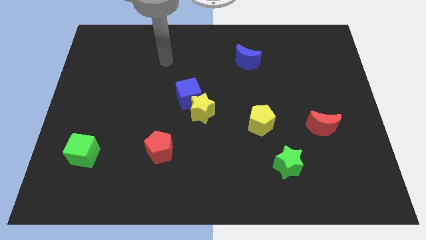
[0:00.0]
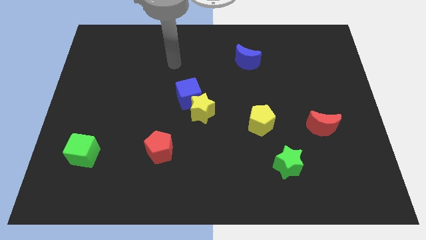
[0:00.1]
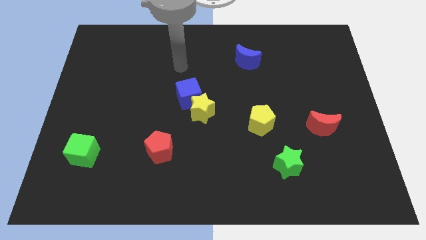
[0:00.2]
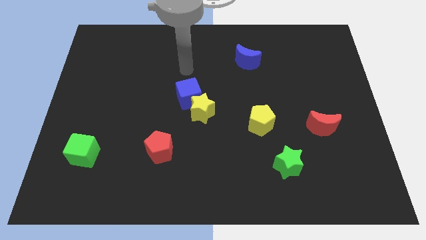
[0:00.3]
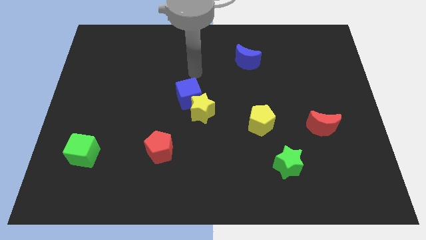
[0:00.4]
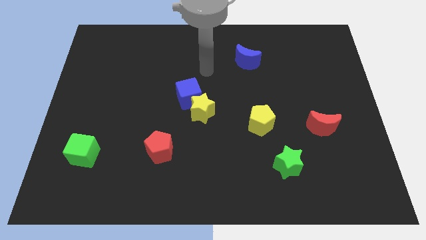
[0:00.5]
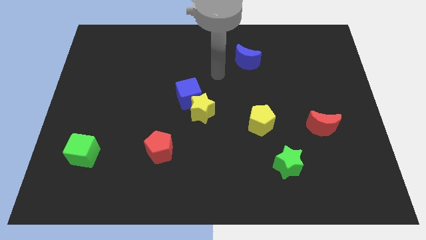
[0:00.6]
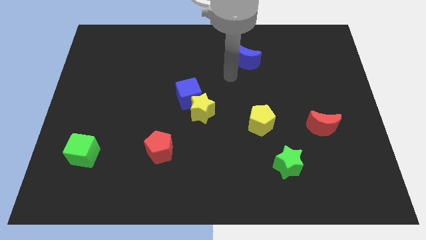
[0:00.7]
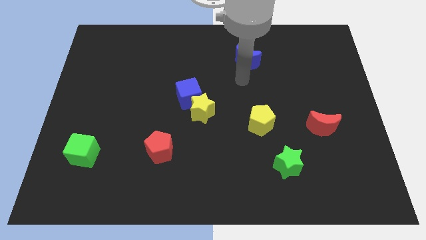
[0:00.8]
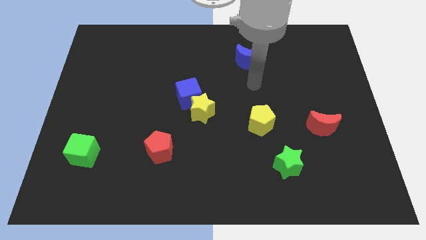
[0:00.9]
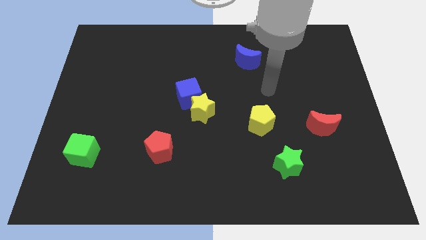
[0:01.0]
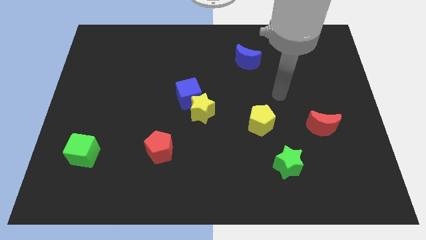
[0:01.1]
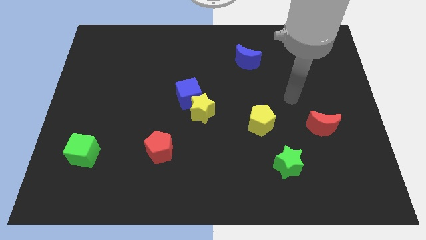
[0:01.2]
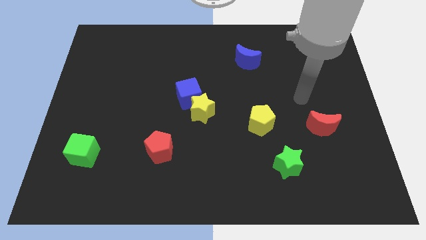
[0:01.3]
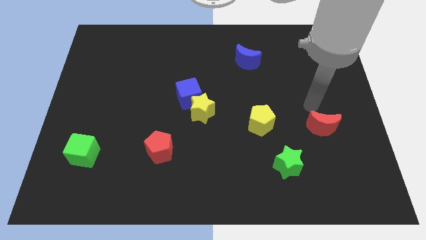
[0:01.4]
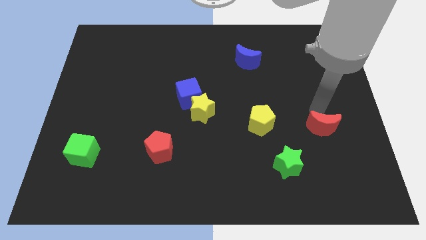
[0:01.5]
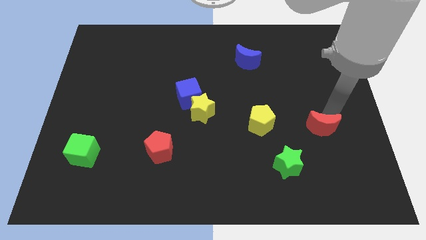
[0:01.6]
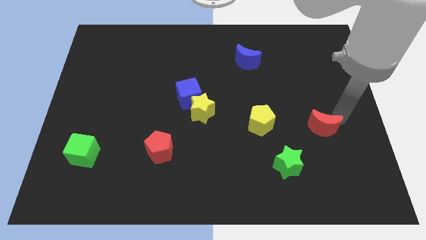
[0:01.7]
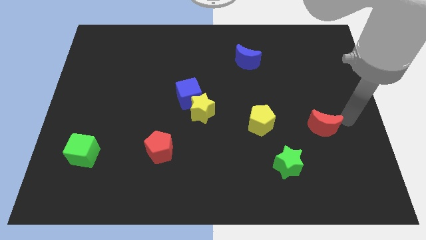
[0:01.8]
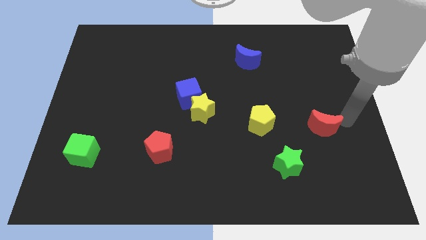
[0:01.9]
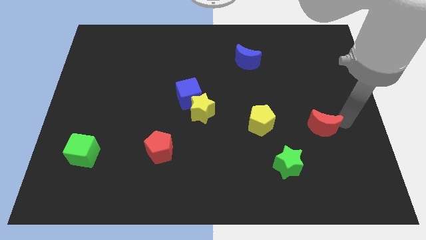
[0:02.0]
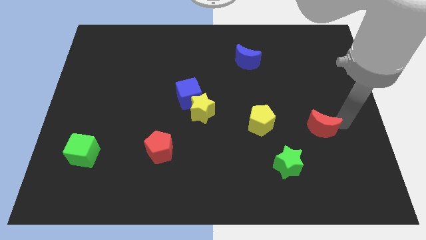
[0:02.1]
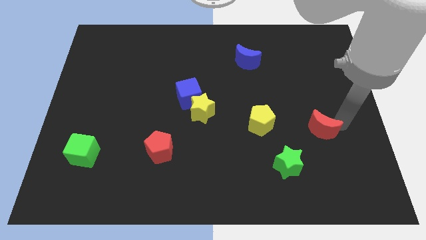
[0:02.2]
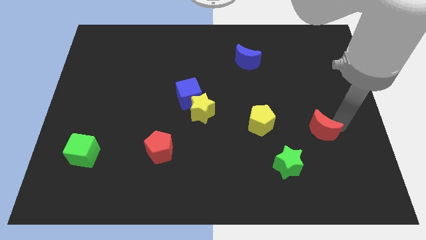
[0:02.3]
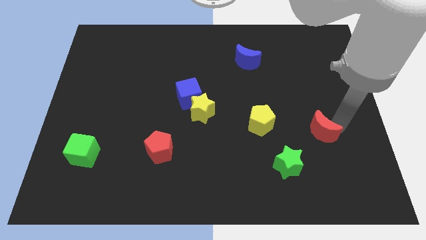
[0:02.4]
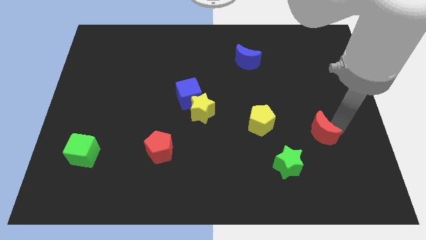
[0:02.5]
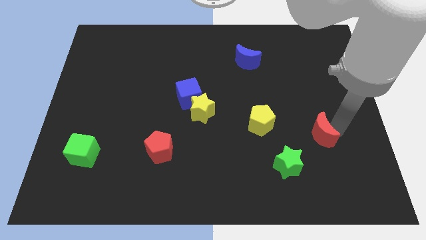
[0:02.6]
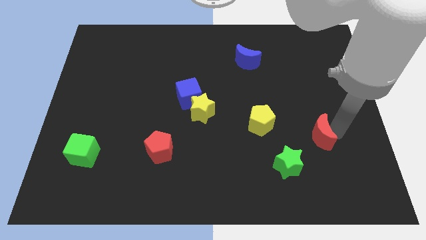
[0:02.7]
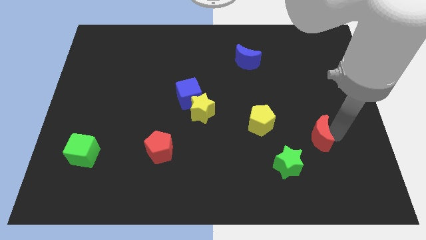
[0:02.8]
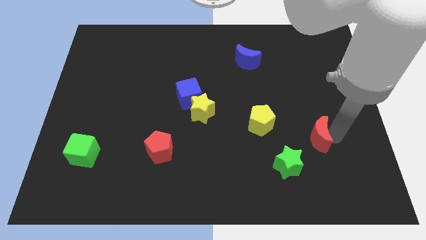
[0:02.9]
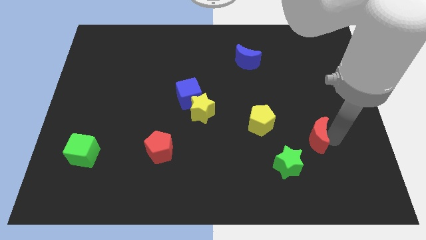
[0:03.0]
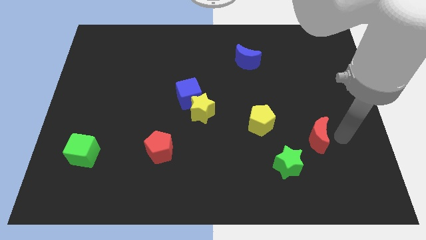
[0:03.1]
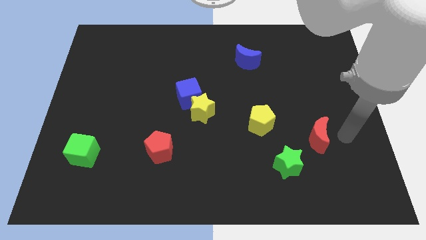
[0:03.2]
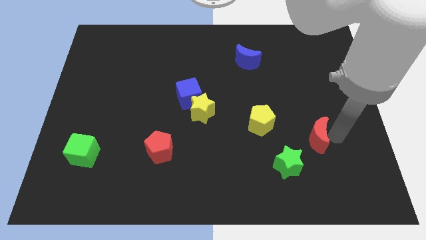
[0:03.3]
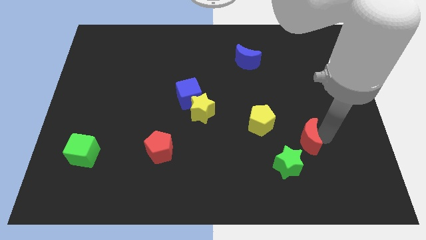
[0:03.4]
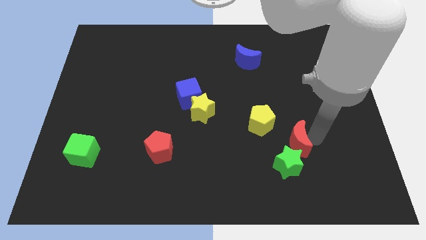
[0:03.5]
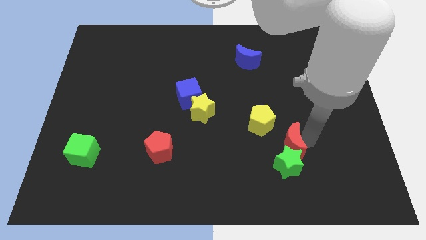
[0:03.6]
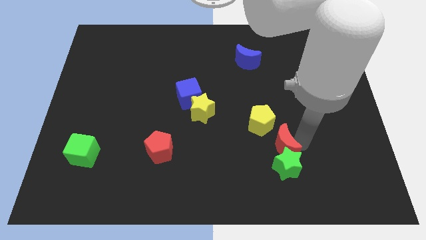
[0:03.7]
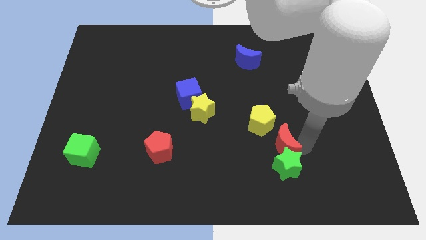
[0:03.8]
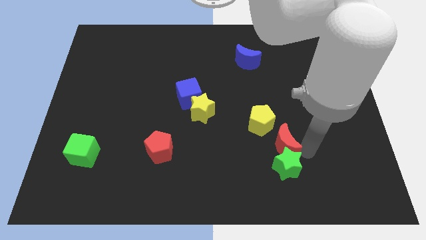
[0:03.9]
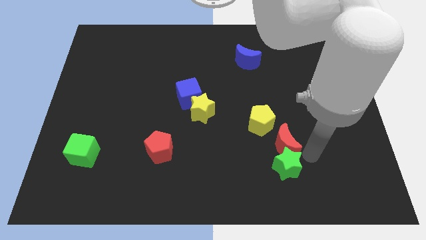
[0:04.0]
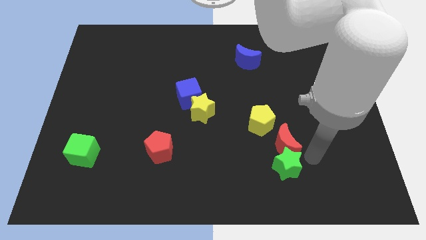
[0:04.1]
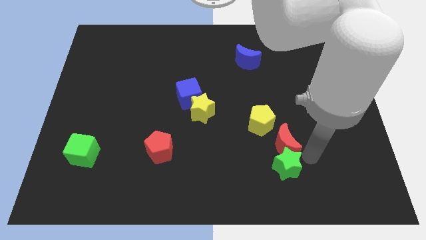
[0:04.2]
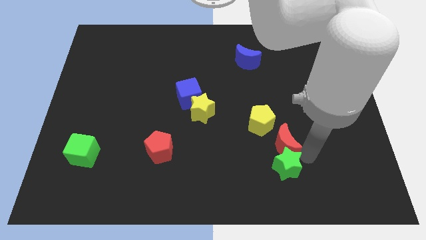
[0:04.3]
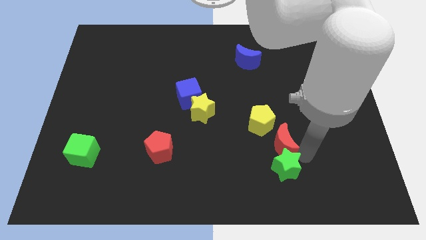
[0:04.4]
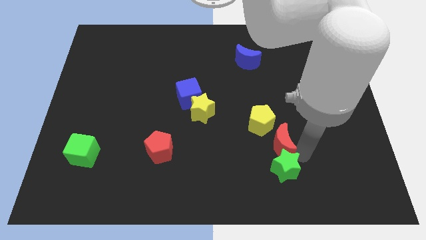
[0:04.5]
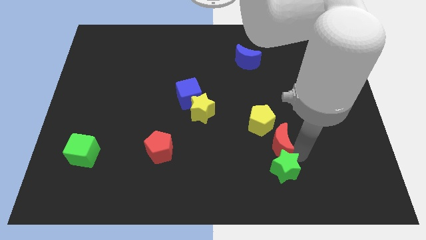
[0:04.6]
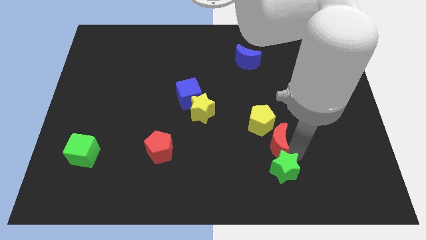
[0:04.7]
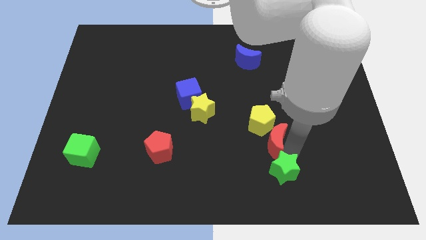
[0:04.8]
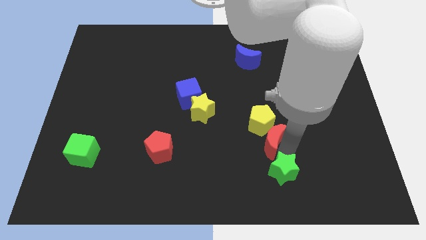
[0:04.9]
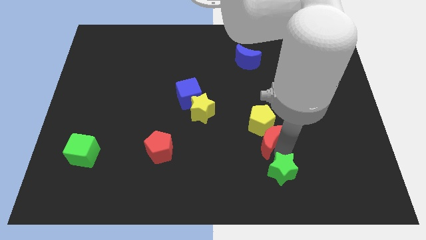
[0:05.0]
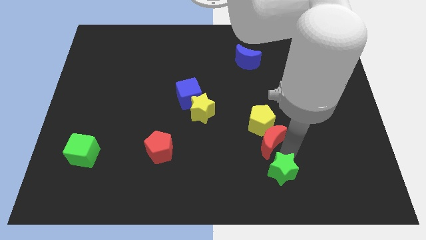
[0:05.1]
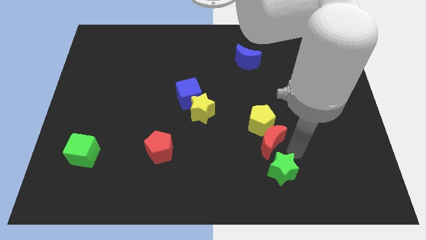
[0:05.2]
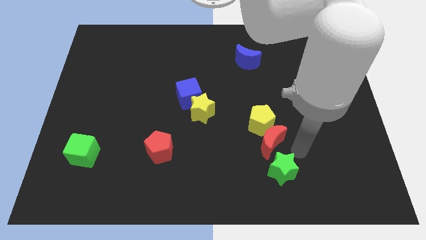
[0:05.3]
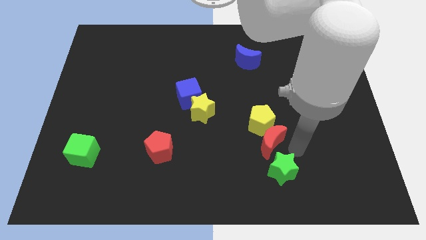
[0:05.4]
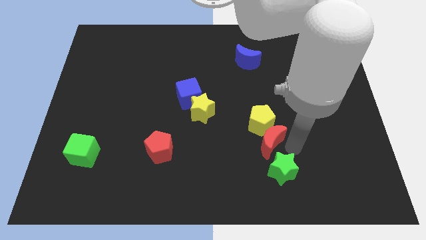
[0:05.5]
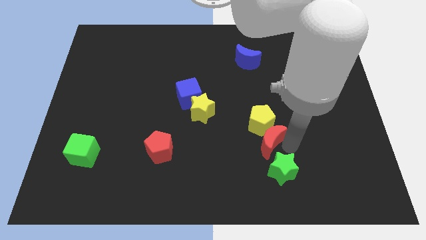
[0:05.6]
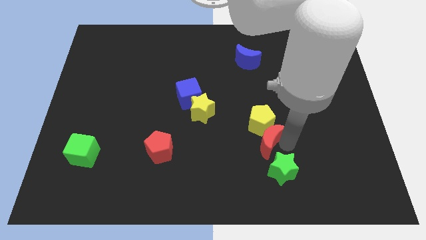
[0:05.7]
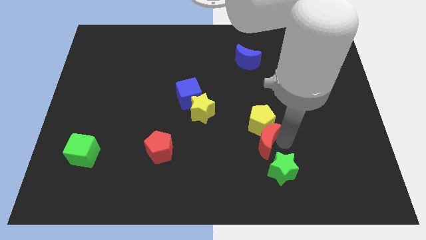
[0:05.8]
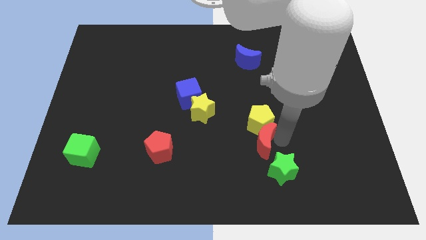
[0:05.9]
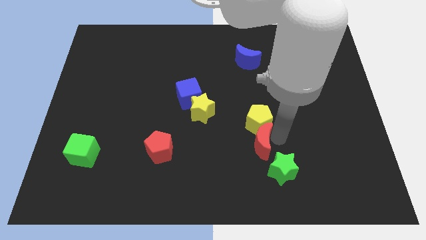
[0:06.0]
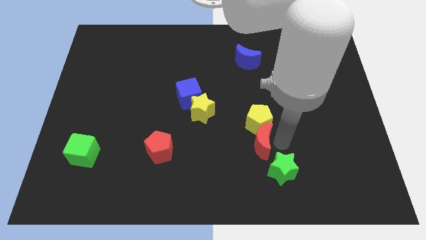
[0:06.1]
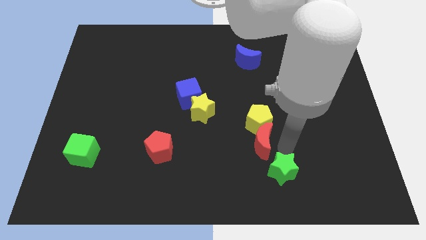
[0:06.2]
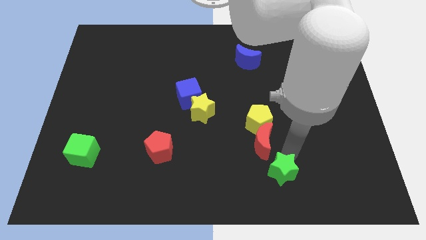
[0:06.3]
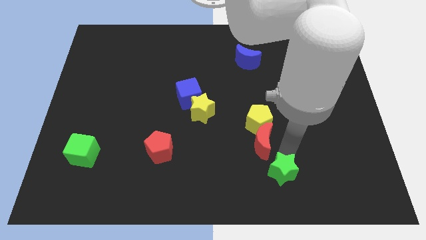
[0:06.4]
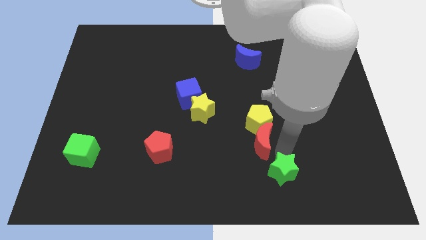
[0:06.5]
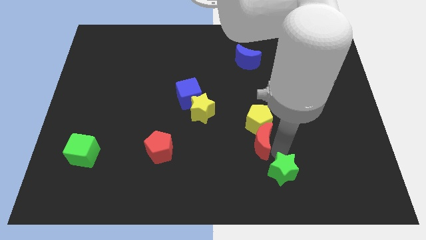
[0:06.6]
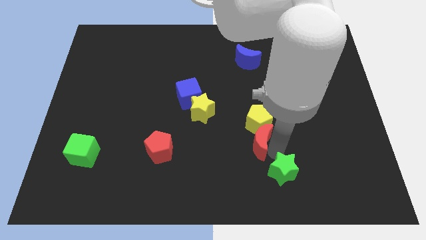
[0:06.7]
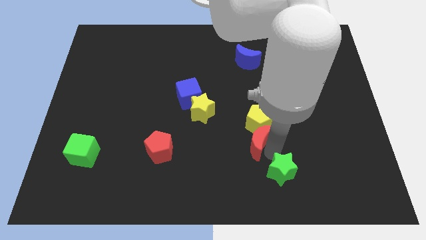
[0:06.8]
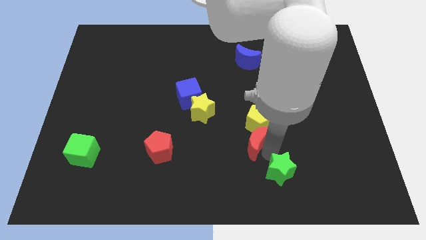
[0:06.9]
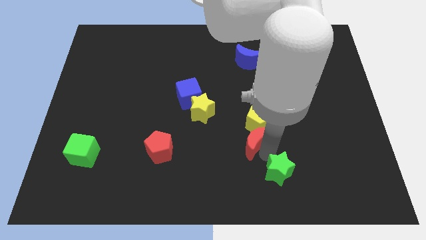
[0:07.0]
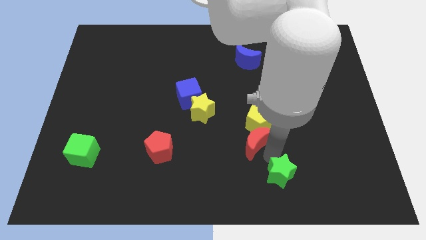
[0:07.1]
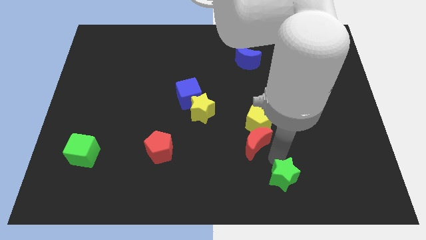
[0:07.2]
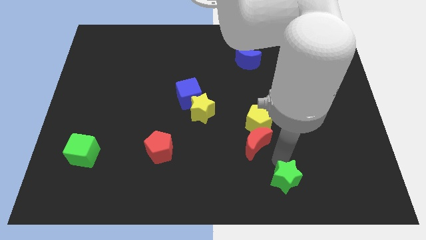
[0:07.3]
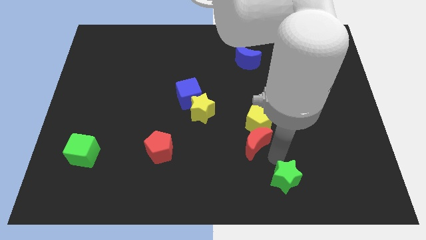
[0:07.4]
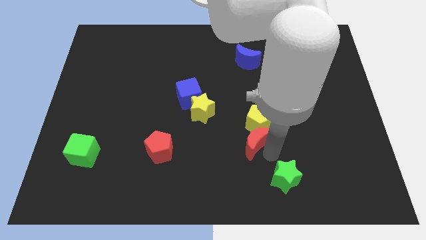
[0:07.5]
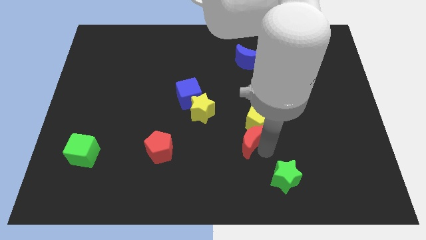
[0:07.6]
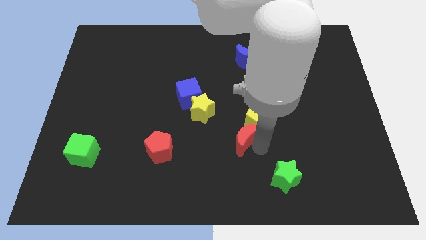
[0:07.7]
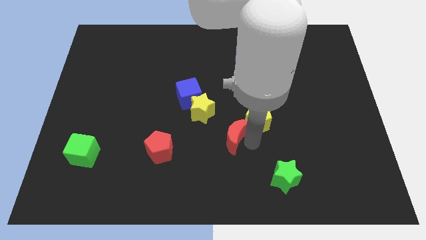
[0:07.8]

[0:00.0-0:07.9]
move the red moon to the left

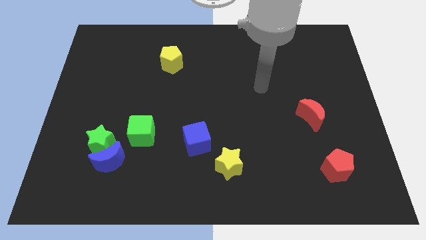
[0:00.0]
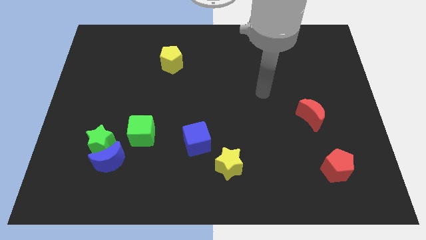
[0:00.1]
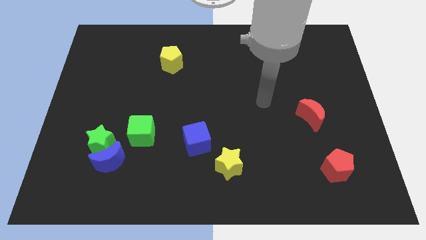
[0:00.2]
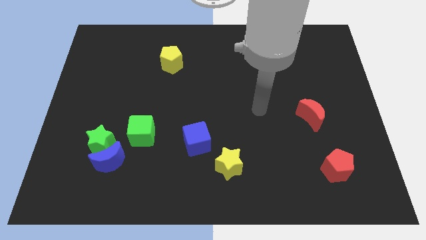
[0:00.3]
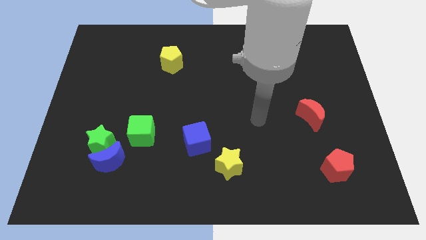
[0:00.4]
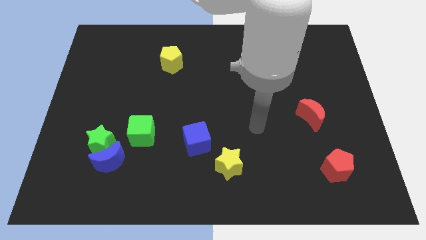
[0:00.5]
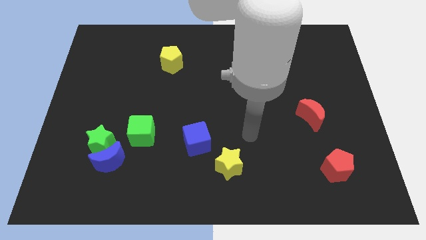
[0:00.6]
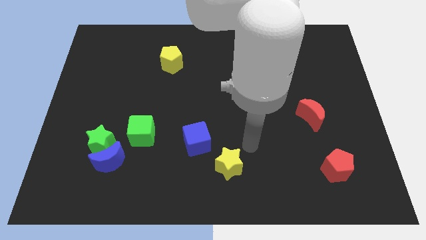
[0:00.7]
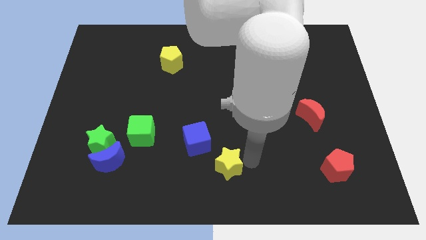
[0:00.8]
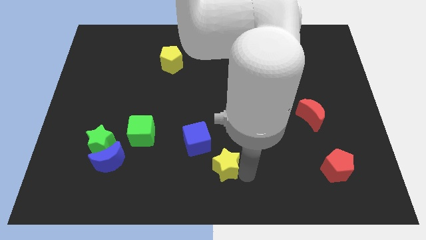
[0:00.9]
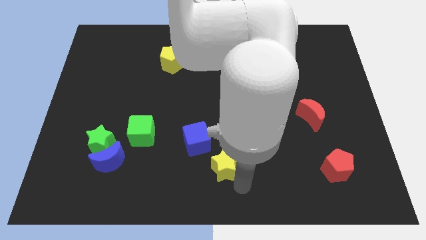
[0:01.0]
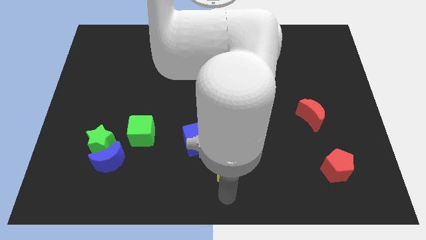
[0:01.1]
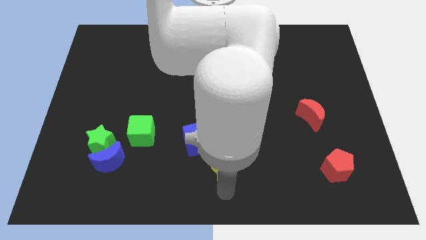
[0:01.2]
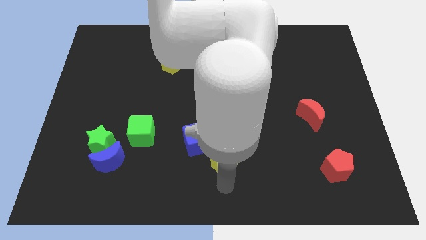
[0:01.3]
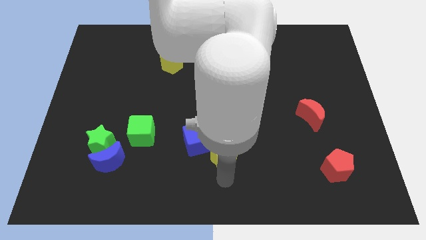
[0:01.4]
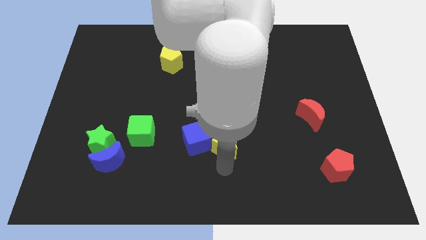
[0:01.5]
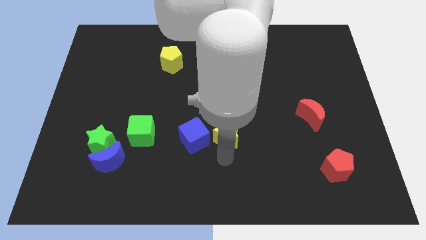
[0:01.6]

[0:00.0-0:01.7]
move the yellow star upwards slightly
